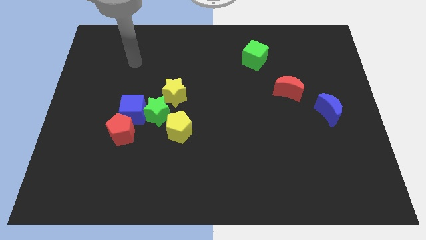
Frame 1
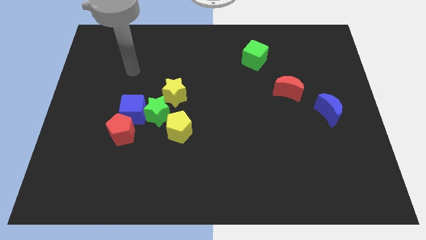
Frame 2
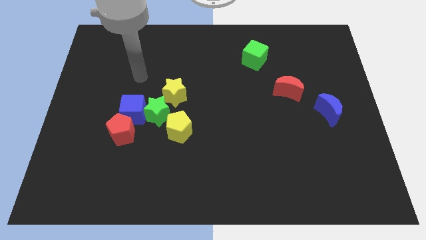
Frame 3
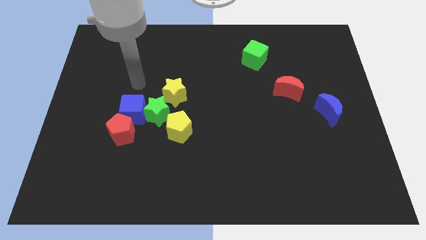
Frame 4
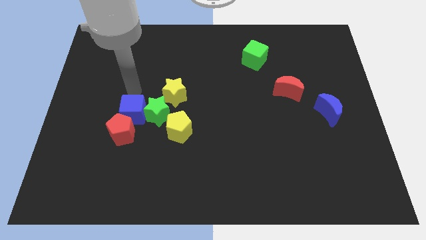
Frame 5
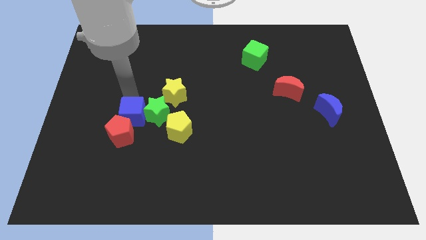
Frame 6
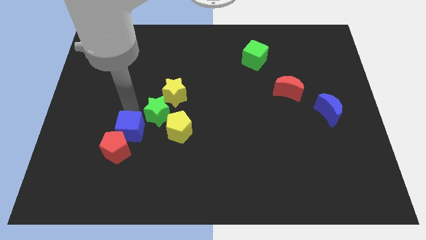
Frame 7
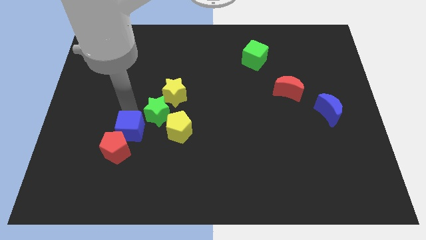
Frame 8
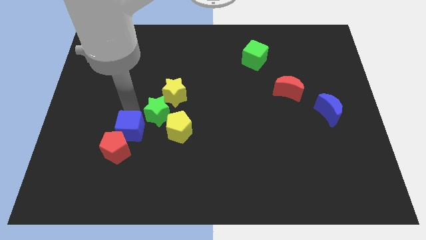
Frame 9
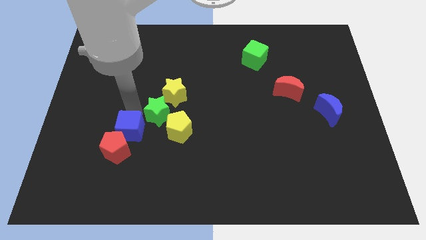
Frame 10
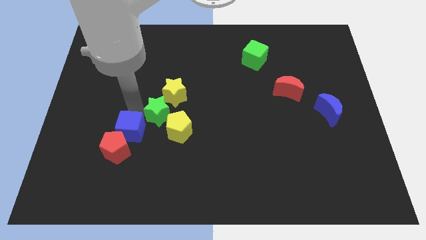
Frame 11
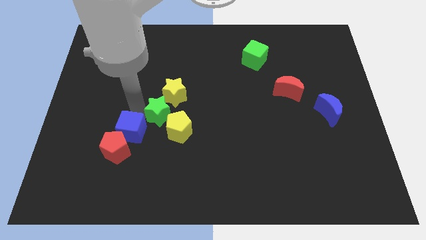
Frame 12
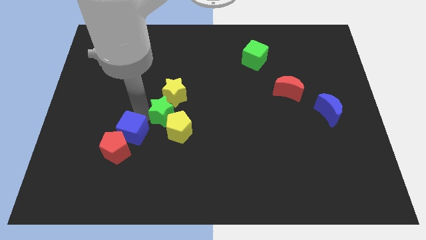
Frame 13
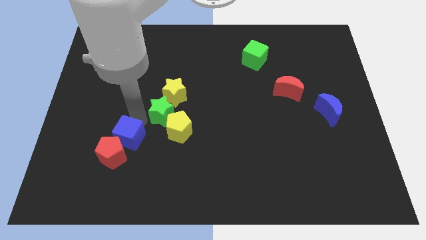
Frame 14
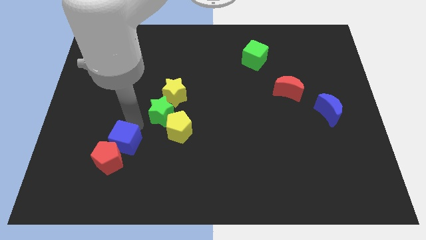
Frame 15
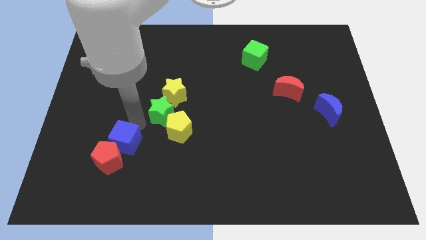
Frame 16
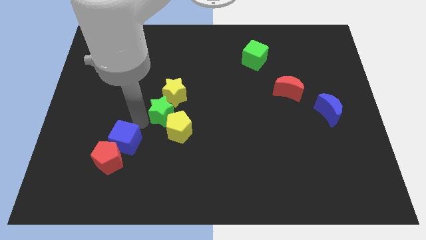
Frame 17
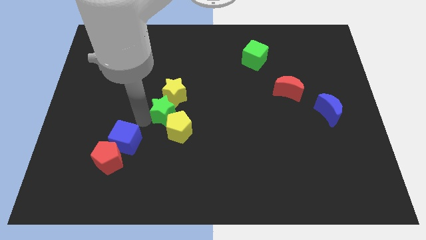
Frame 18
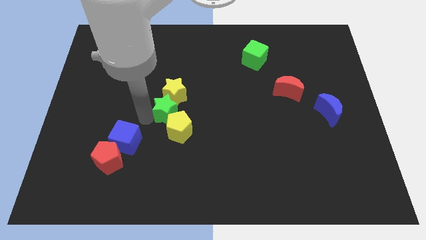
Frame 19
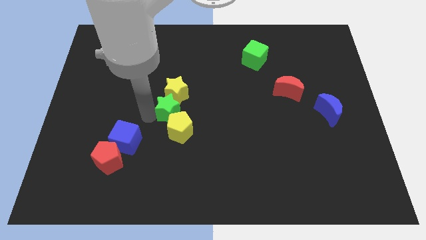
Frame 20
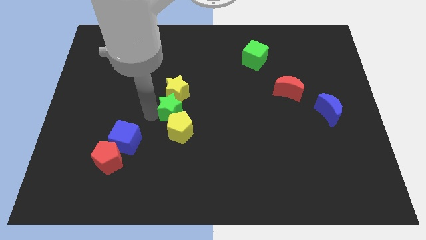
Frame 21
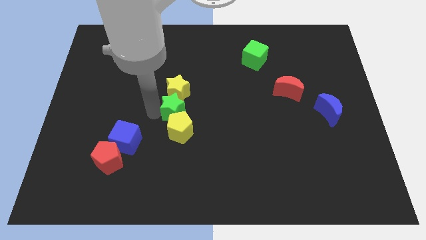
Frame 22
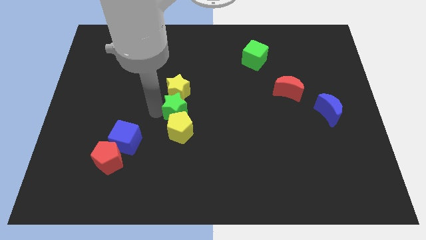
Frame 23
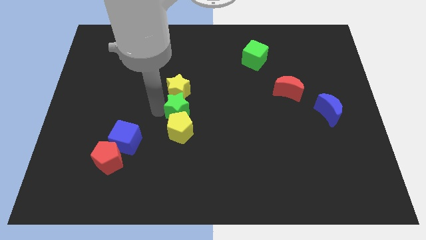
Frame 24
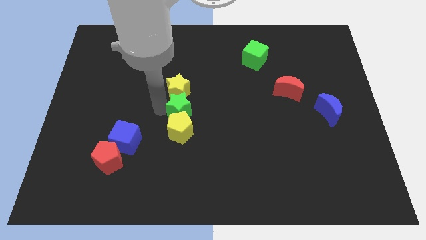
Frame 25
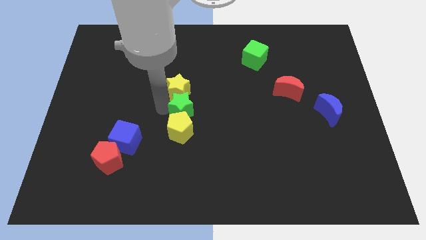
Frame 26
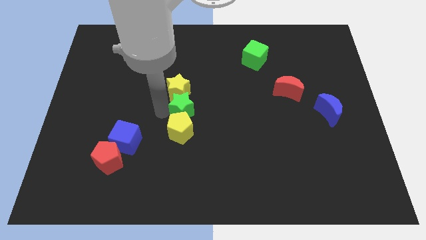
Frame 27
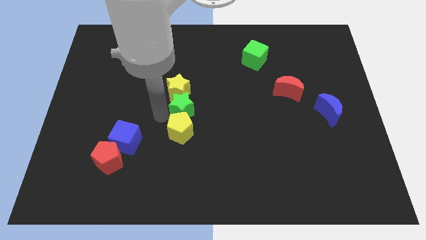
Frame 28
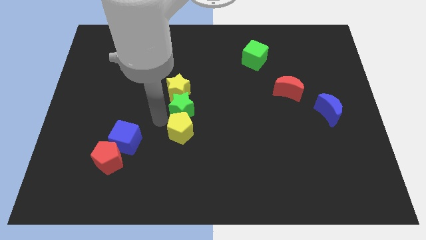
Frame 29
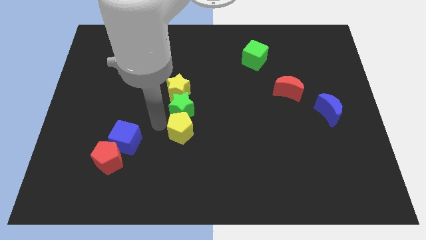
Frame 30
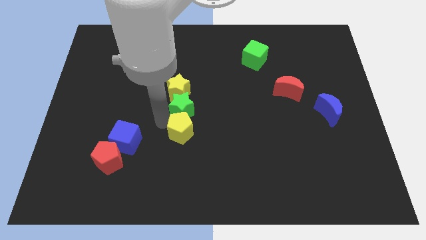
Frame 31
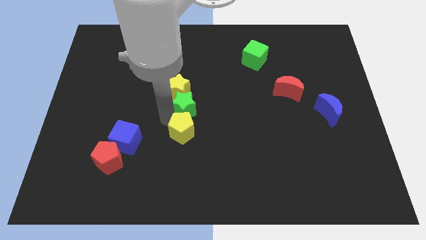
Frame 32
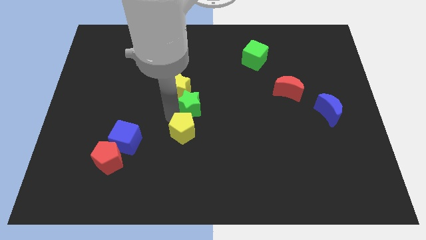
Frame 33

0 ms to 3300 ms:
pull the green star apart from the group of blocks

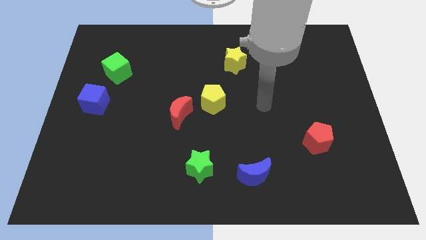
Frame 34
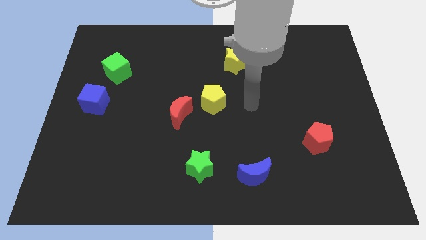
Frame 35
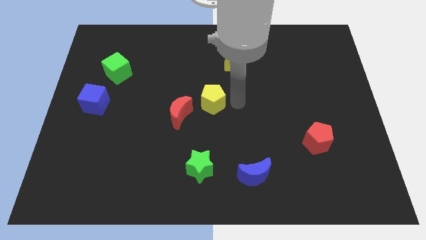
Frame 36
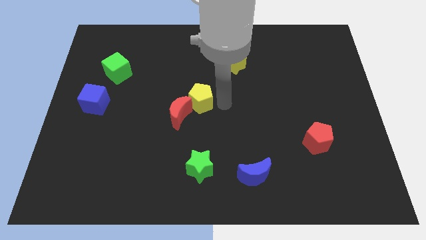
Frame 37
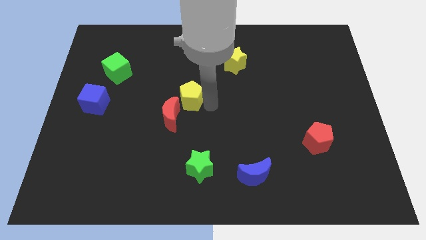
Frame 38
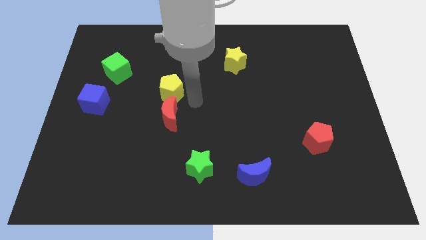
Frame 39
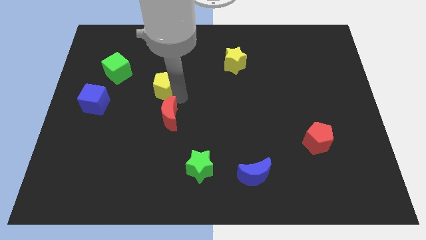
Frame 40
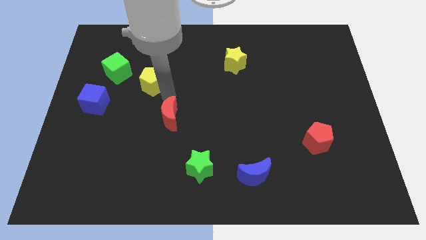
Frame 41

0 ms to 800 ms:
pull the red moon apart from the yellow pentagon

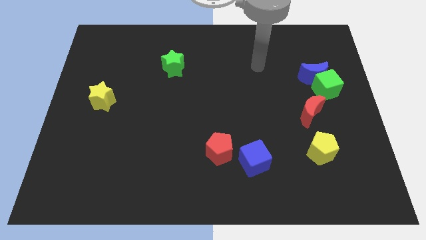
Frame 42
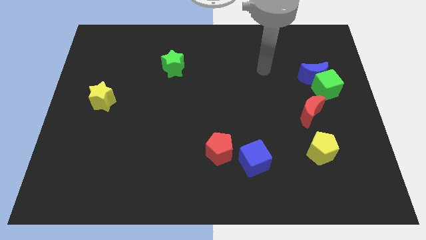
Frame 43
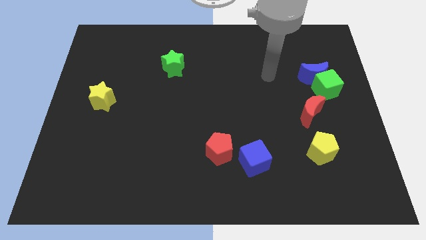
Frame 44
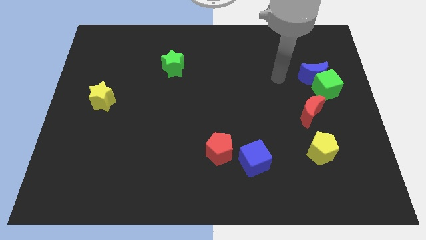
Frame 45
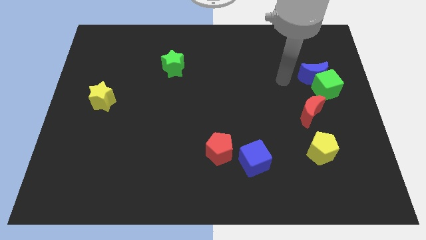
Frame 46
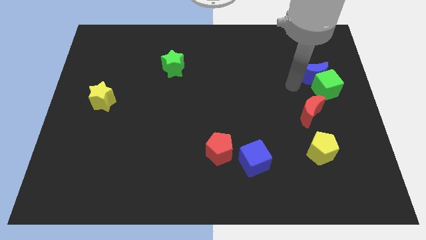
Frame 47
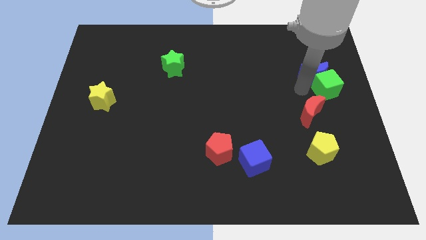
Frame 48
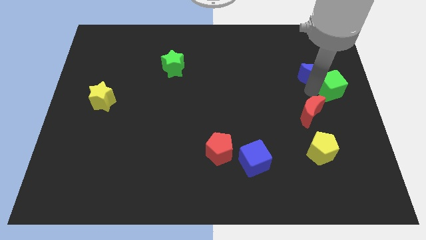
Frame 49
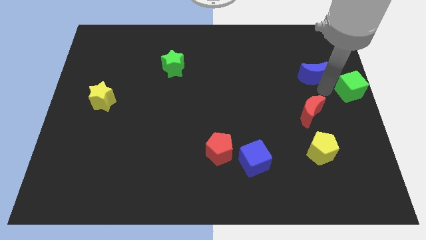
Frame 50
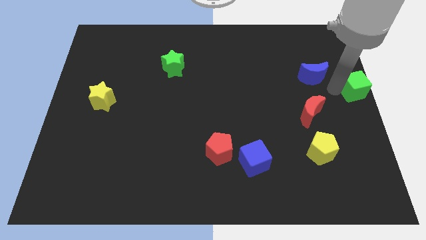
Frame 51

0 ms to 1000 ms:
move the blue moon away from the green cube

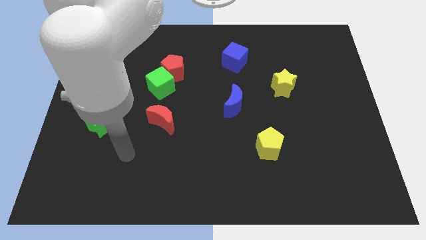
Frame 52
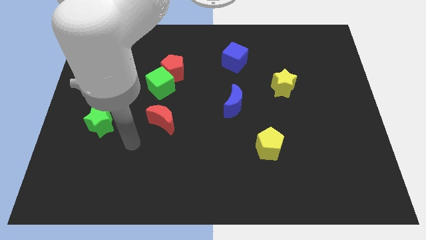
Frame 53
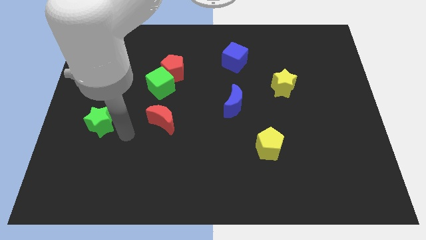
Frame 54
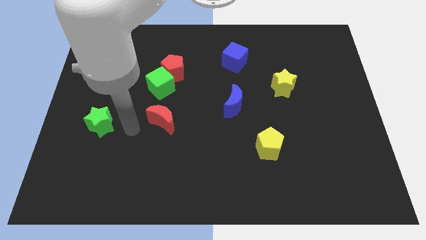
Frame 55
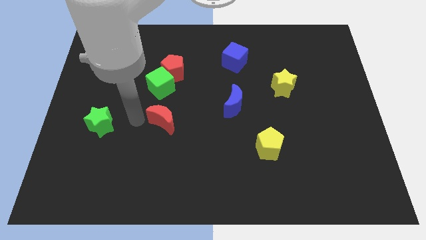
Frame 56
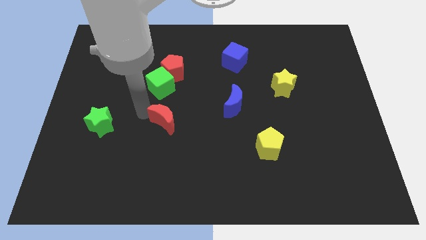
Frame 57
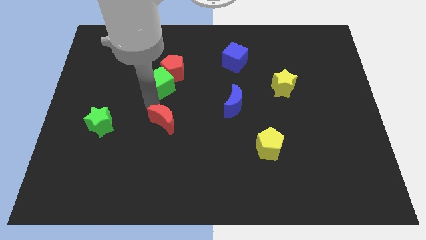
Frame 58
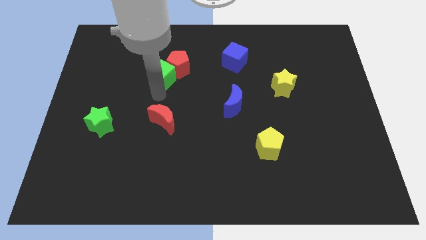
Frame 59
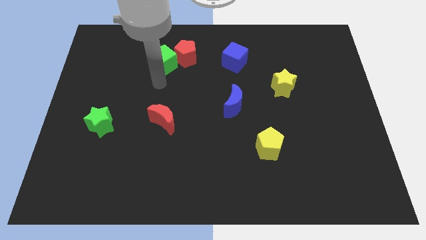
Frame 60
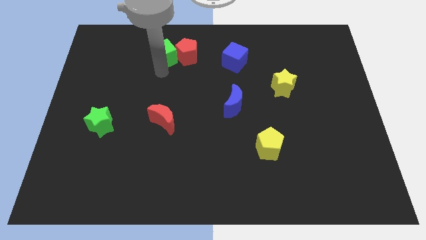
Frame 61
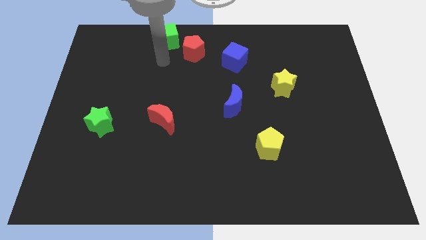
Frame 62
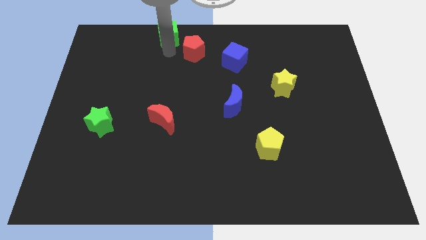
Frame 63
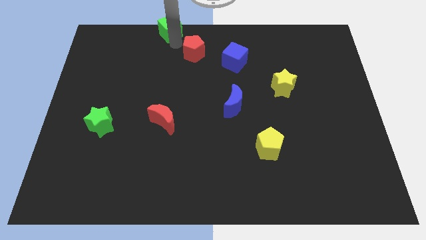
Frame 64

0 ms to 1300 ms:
move the red pentagon away from the green cube

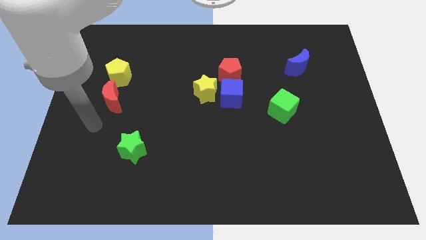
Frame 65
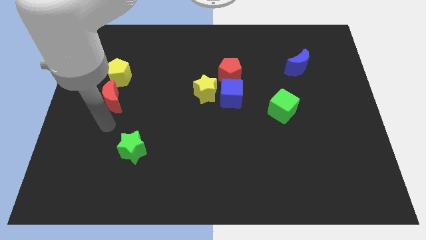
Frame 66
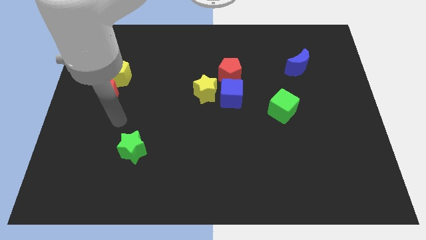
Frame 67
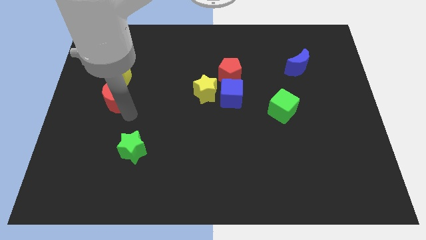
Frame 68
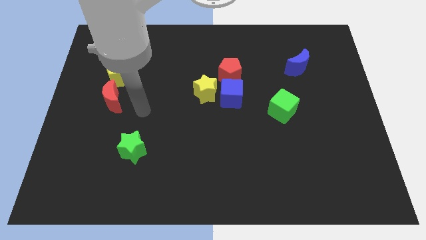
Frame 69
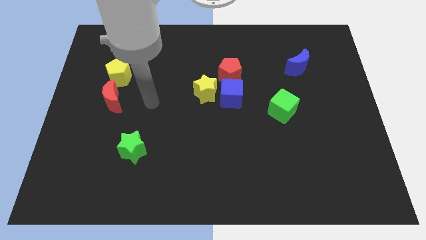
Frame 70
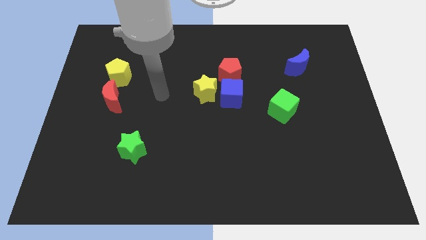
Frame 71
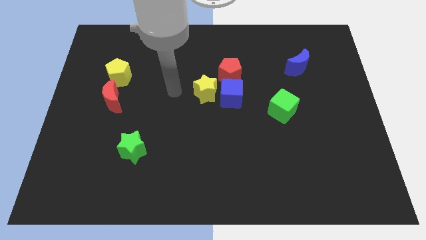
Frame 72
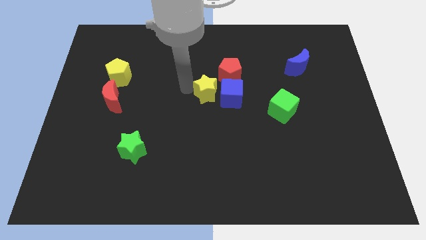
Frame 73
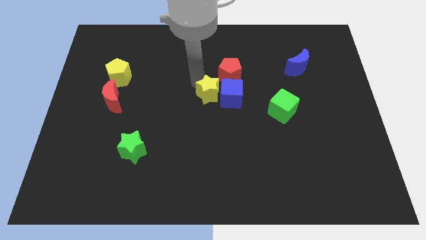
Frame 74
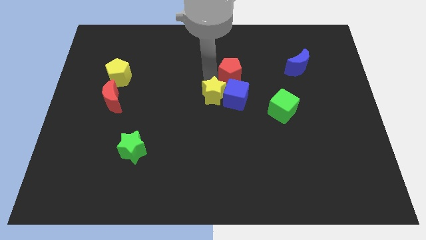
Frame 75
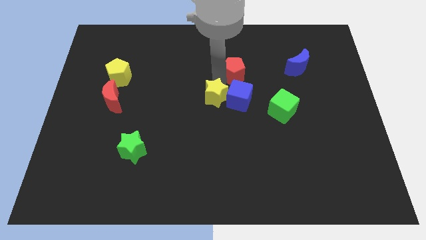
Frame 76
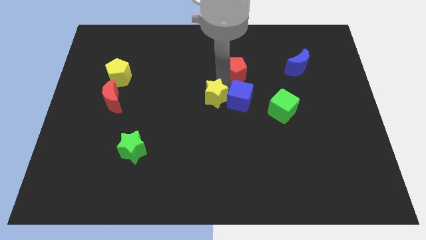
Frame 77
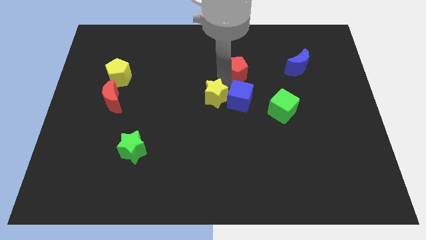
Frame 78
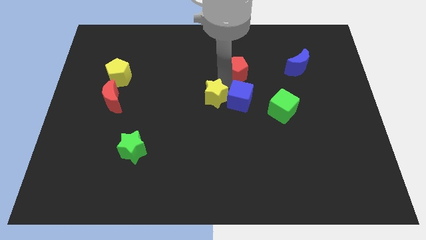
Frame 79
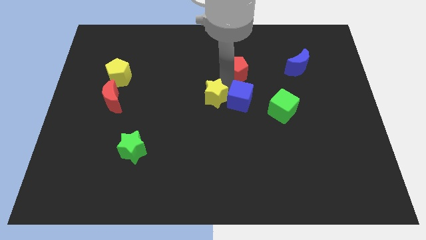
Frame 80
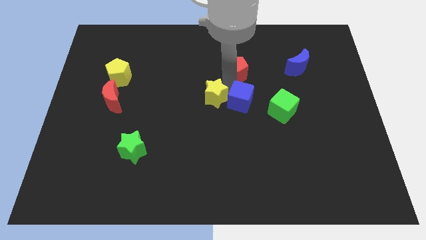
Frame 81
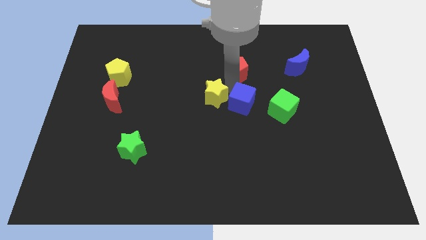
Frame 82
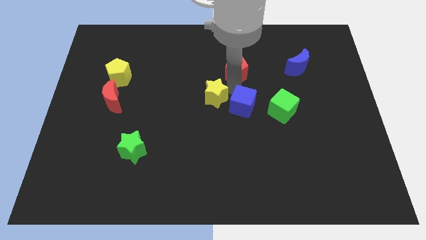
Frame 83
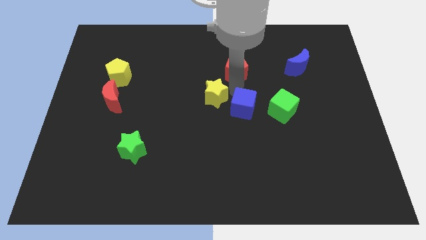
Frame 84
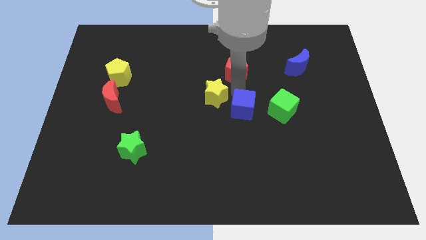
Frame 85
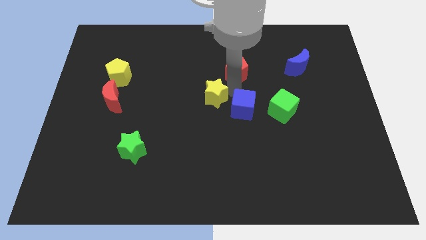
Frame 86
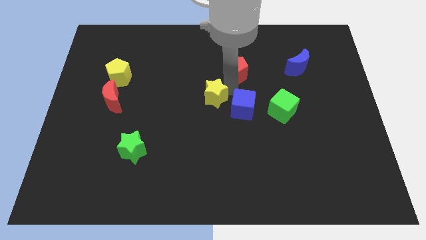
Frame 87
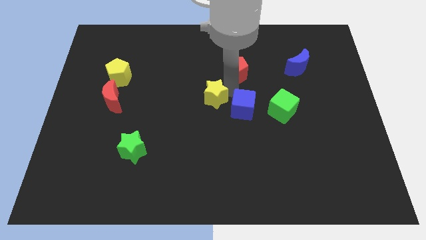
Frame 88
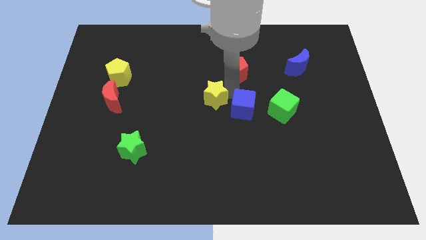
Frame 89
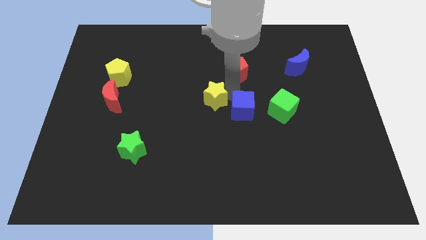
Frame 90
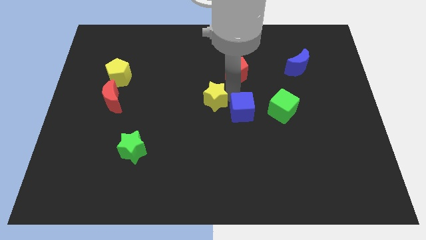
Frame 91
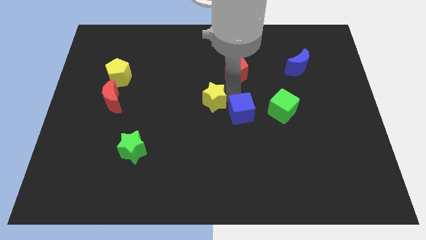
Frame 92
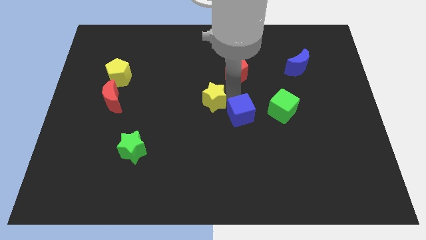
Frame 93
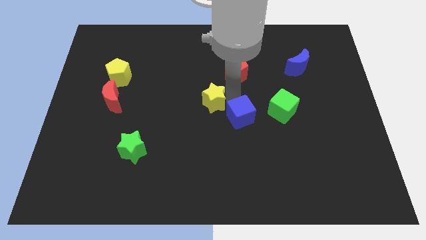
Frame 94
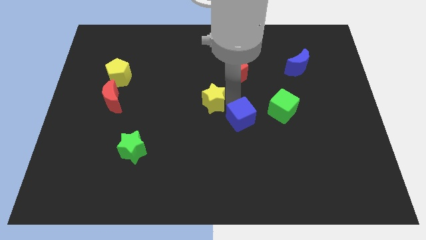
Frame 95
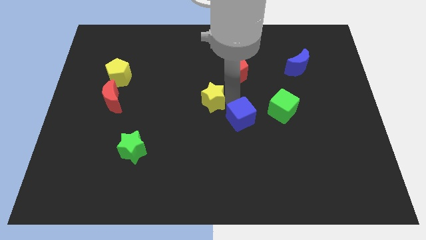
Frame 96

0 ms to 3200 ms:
pull the blue cube apart from the yellow star and red pentagon
